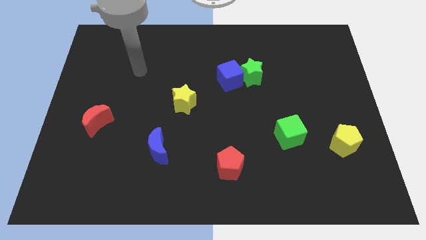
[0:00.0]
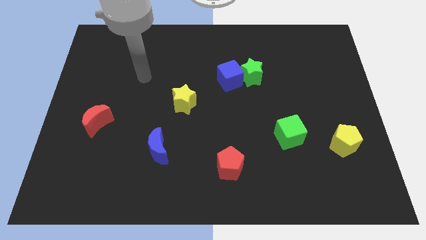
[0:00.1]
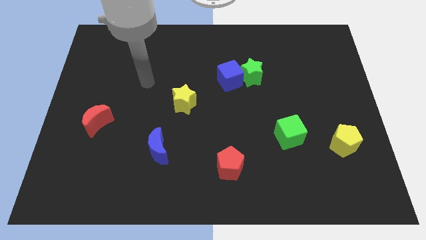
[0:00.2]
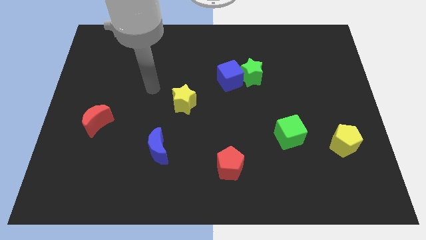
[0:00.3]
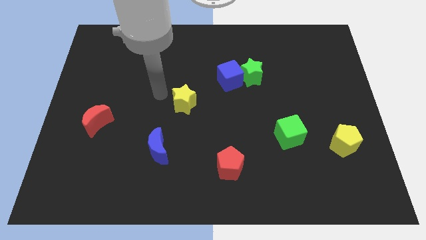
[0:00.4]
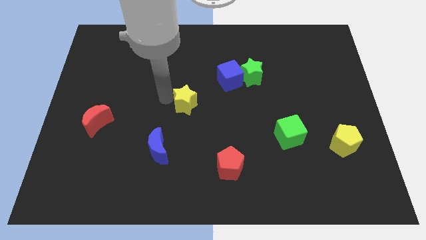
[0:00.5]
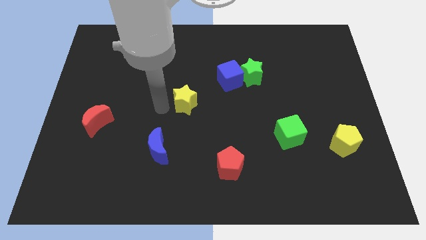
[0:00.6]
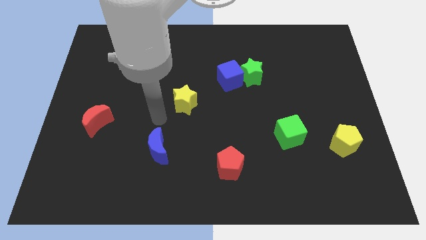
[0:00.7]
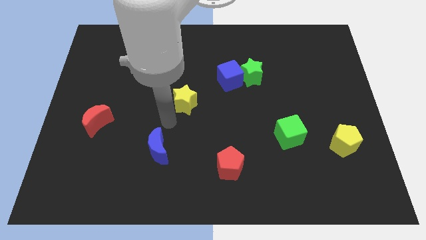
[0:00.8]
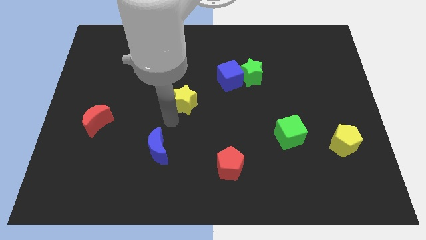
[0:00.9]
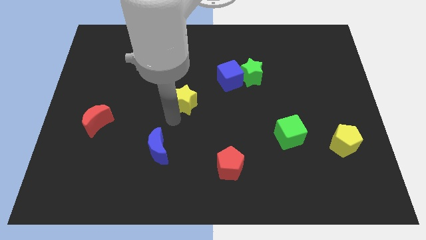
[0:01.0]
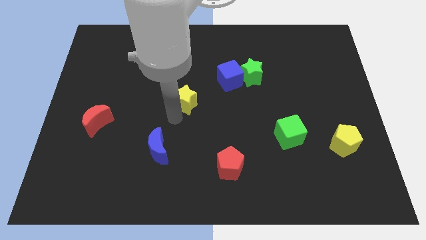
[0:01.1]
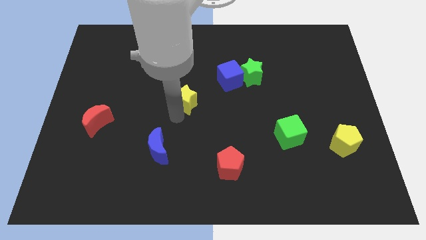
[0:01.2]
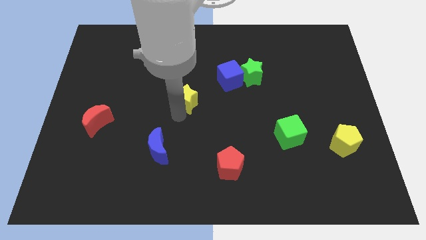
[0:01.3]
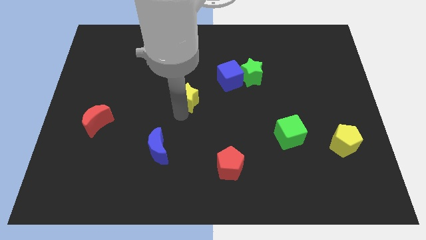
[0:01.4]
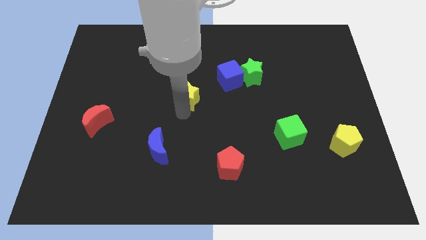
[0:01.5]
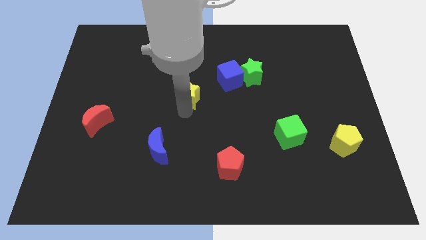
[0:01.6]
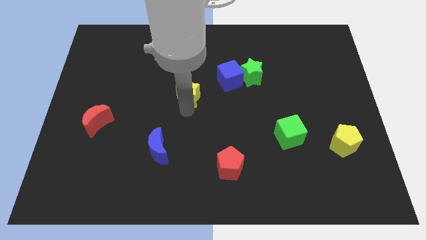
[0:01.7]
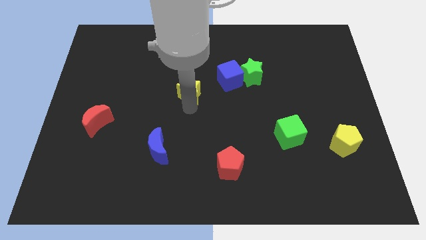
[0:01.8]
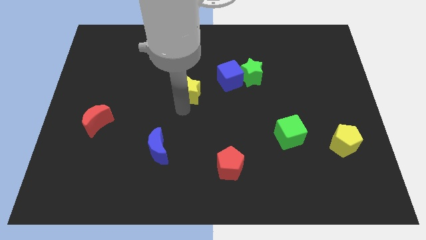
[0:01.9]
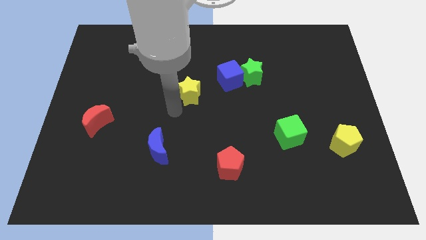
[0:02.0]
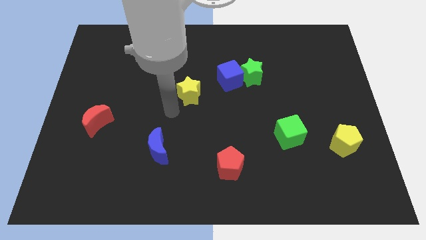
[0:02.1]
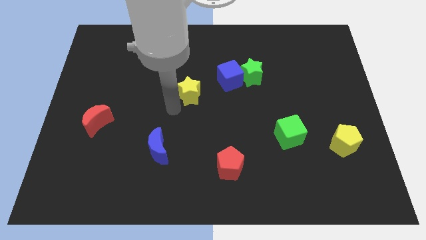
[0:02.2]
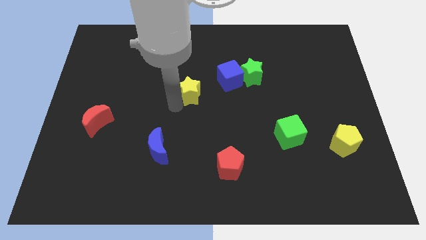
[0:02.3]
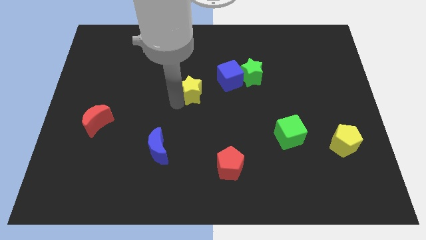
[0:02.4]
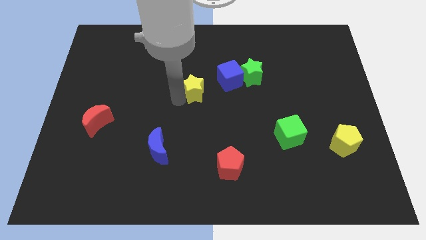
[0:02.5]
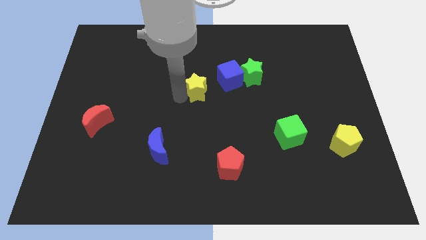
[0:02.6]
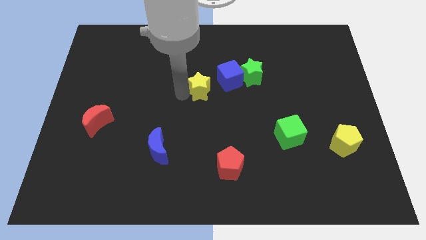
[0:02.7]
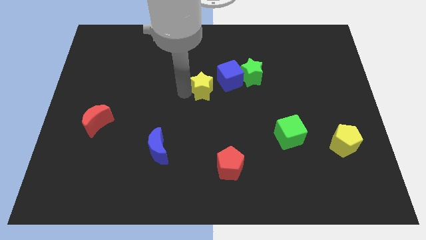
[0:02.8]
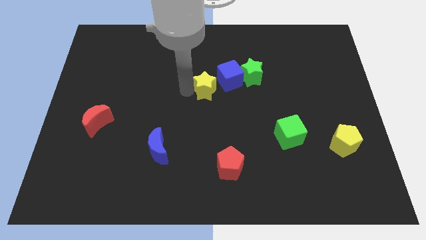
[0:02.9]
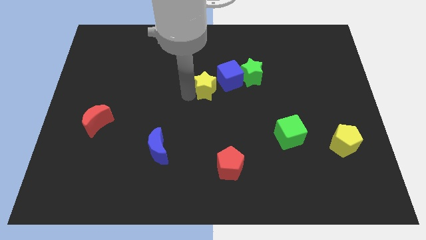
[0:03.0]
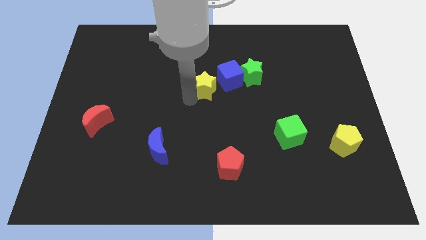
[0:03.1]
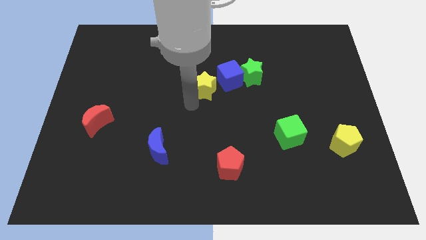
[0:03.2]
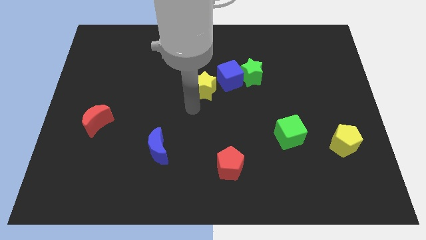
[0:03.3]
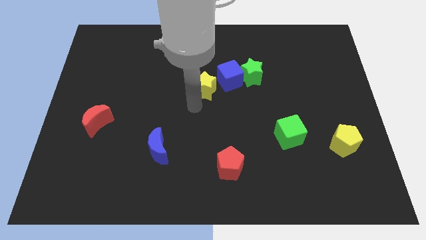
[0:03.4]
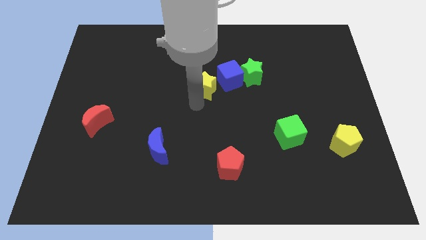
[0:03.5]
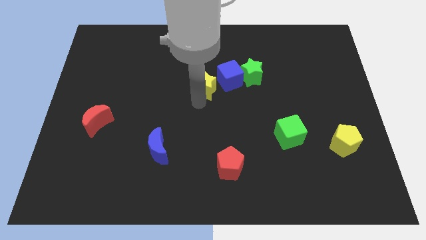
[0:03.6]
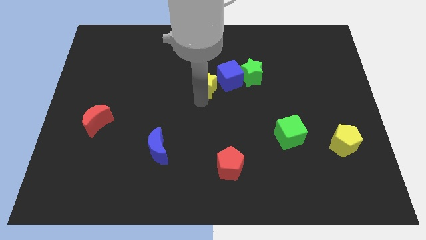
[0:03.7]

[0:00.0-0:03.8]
slide the yellow star a little upwards and to the right diagonally

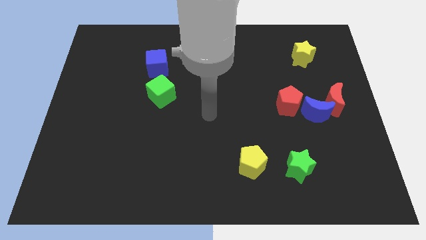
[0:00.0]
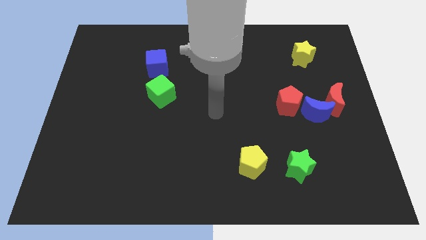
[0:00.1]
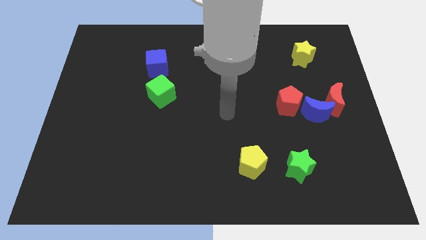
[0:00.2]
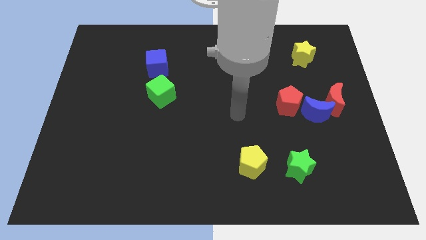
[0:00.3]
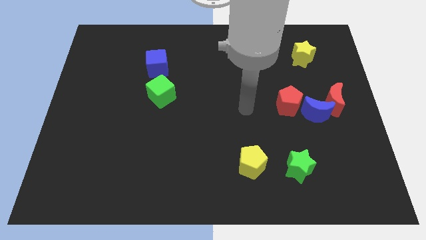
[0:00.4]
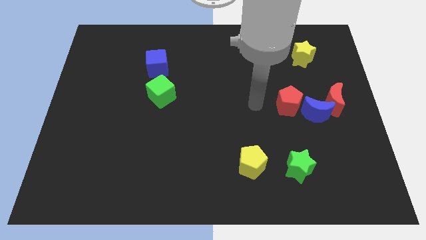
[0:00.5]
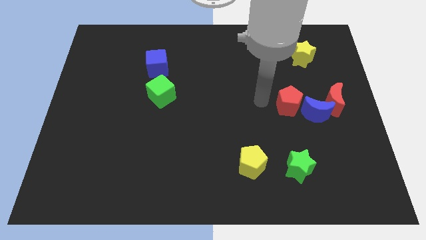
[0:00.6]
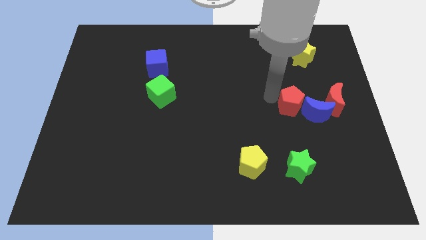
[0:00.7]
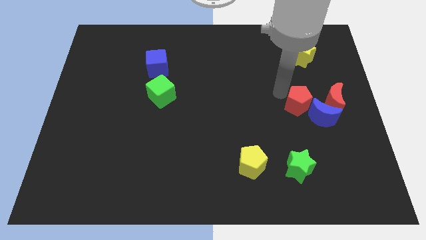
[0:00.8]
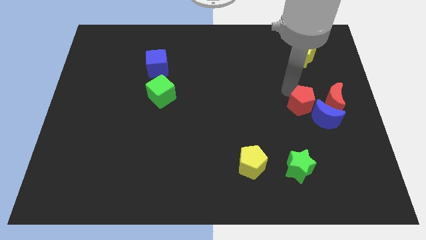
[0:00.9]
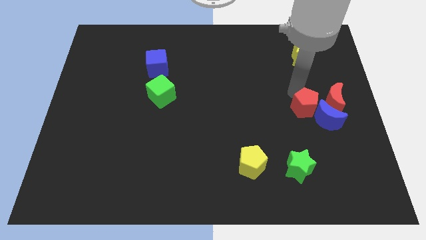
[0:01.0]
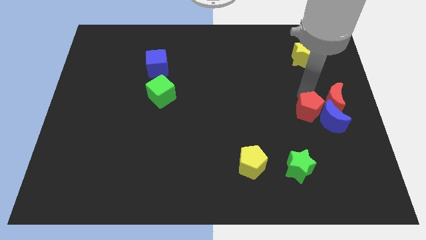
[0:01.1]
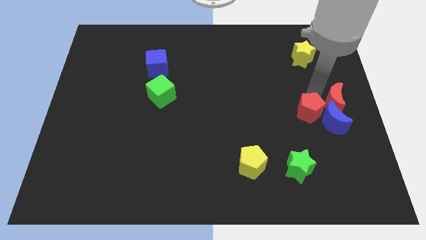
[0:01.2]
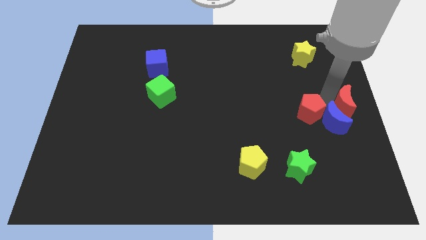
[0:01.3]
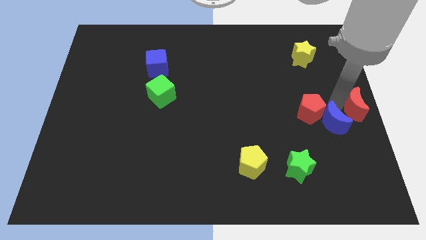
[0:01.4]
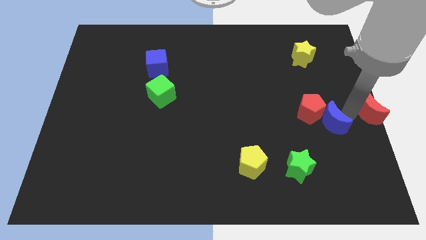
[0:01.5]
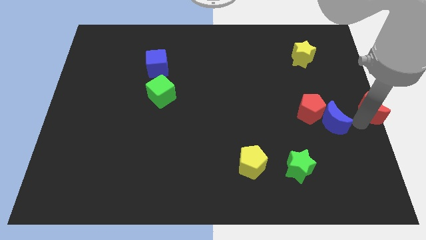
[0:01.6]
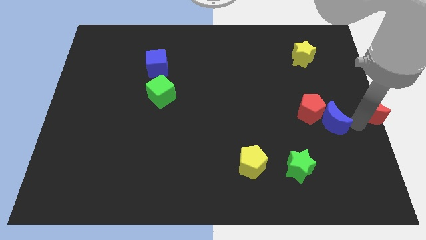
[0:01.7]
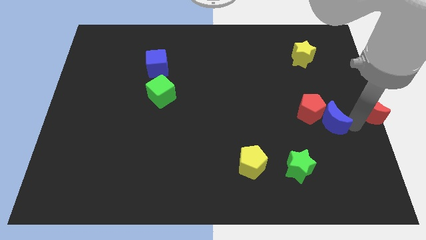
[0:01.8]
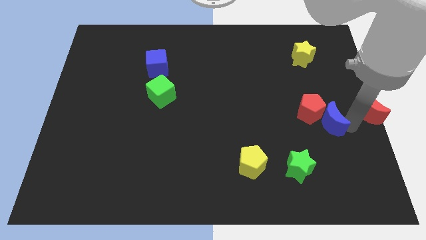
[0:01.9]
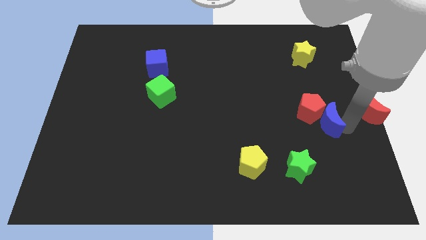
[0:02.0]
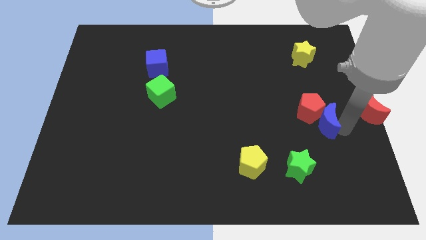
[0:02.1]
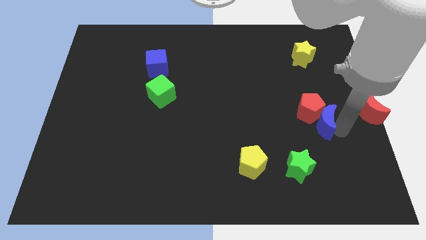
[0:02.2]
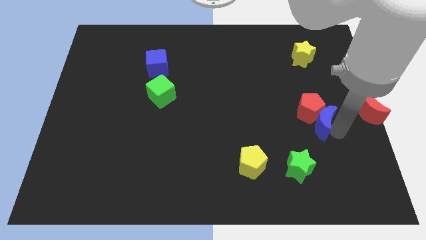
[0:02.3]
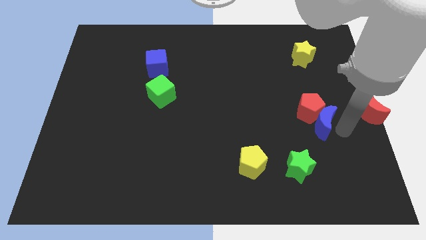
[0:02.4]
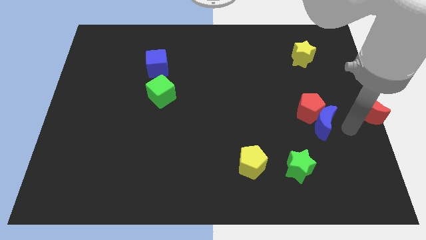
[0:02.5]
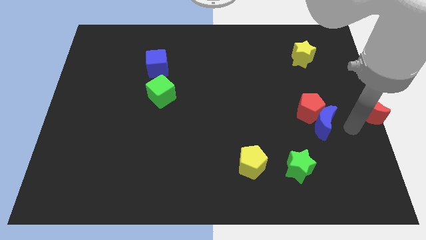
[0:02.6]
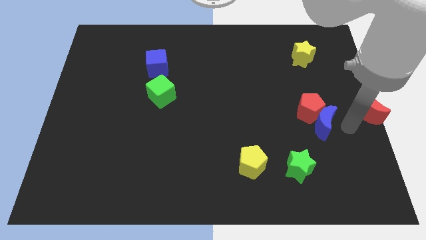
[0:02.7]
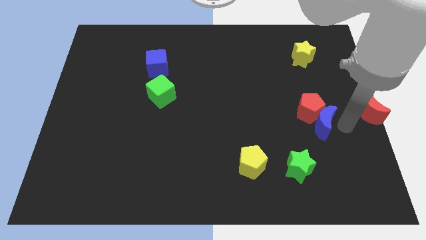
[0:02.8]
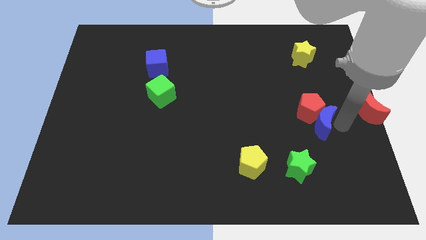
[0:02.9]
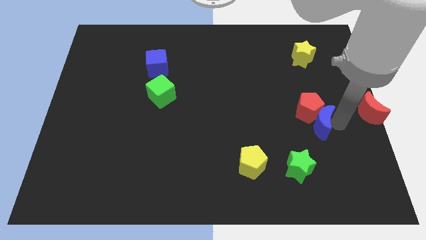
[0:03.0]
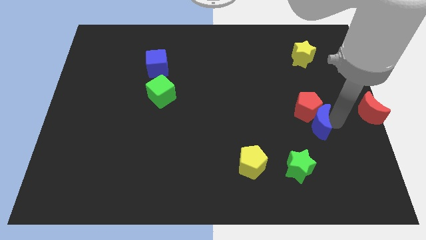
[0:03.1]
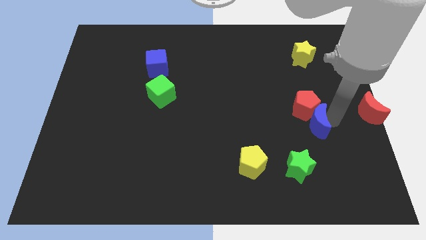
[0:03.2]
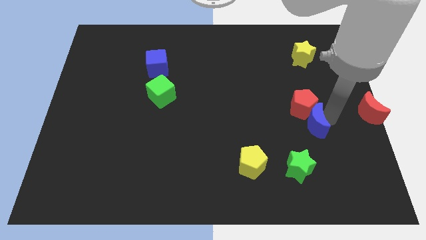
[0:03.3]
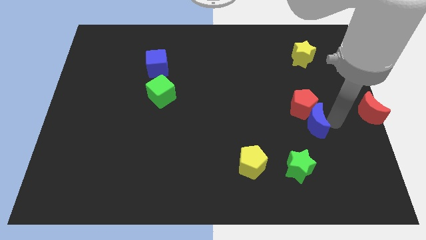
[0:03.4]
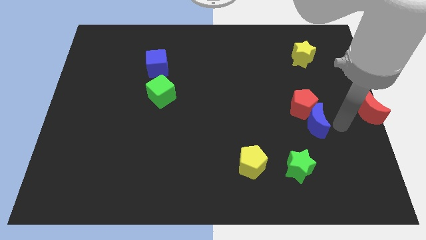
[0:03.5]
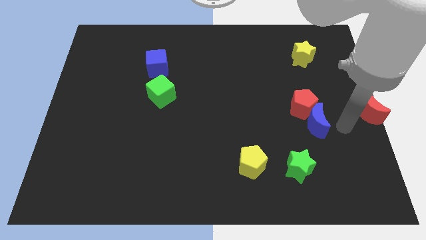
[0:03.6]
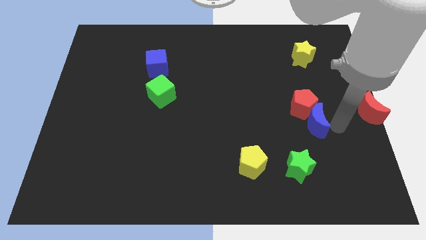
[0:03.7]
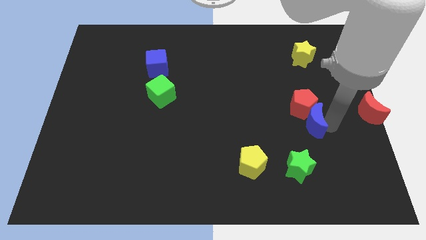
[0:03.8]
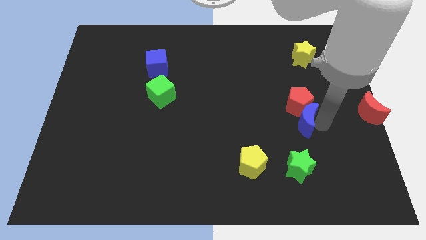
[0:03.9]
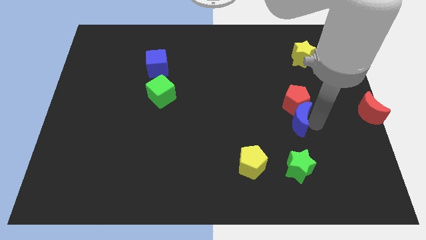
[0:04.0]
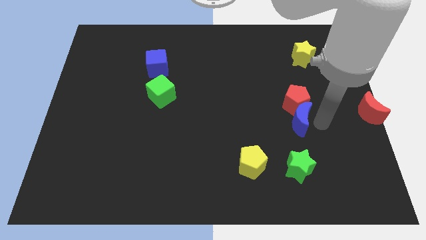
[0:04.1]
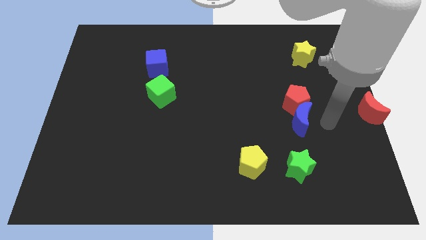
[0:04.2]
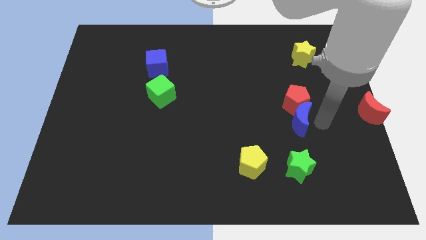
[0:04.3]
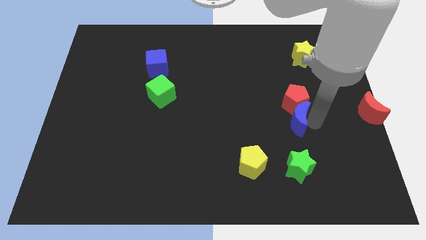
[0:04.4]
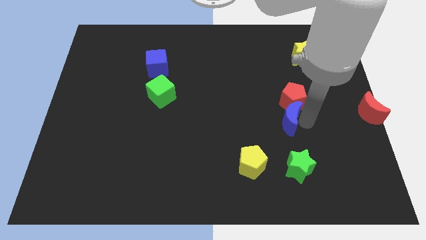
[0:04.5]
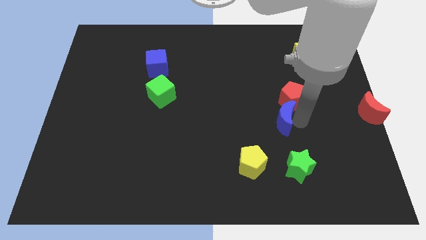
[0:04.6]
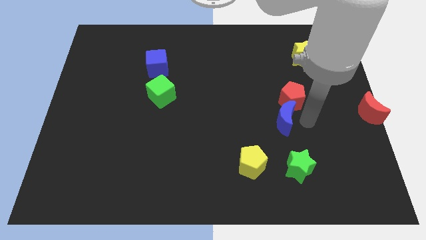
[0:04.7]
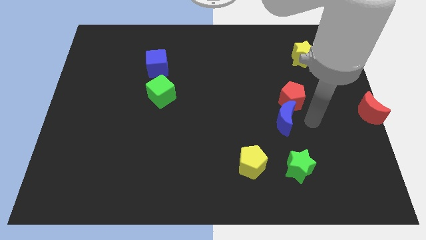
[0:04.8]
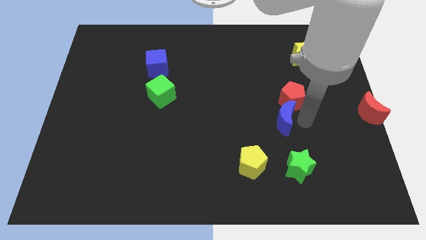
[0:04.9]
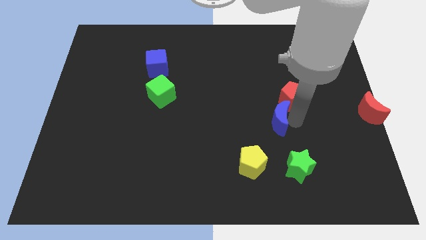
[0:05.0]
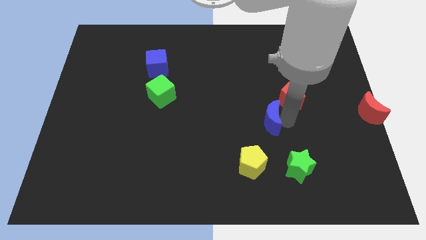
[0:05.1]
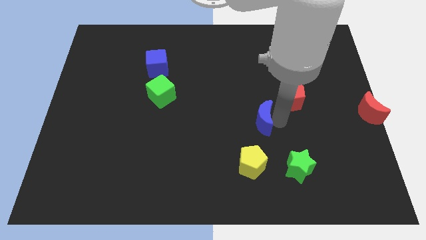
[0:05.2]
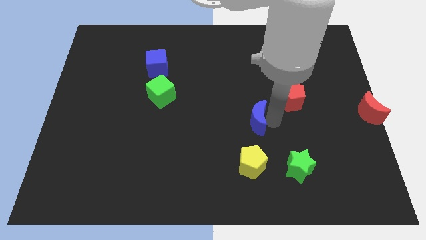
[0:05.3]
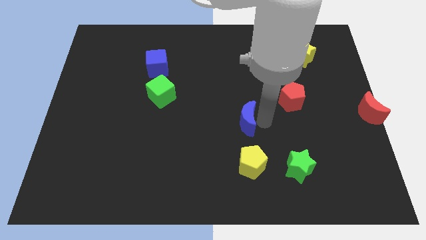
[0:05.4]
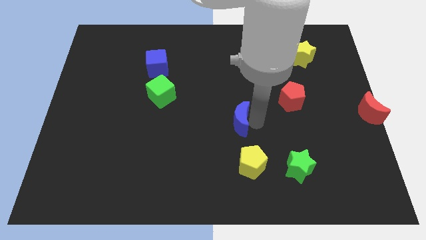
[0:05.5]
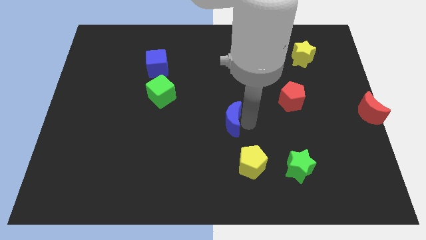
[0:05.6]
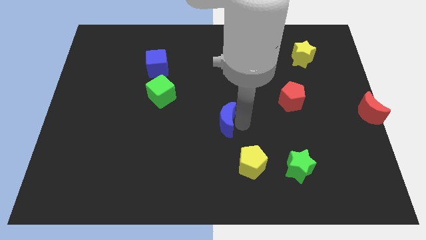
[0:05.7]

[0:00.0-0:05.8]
push the blue moon left
